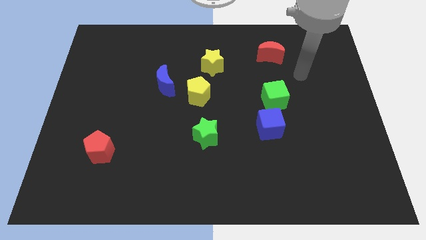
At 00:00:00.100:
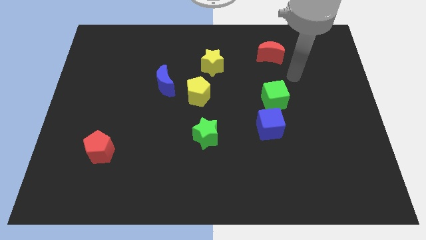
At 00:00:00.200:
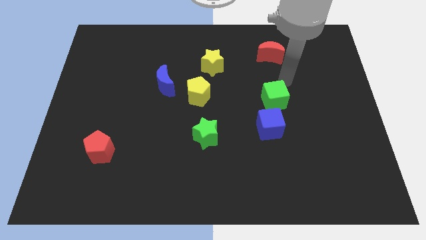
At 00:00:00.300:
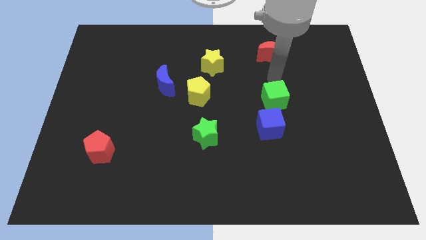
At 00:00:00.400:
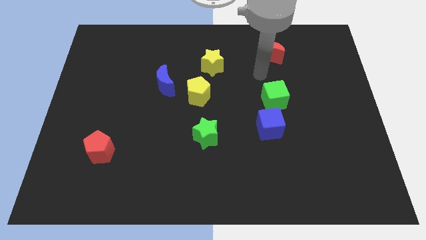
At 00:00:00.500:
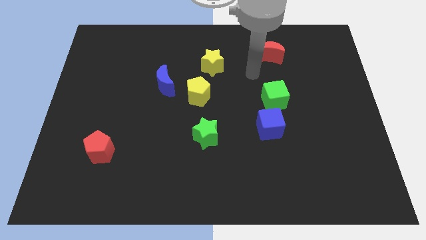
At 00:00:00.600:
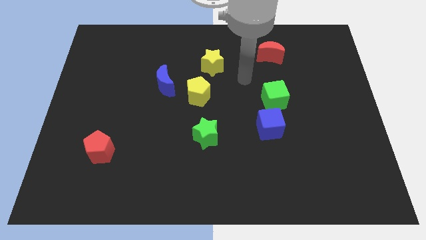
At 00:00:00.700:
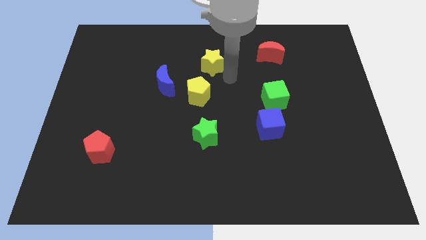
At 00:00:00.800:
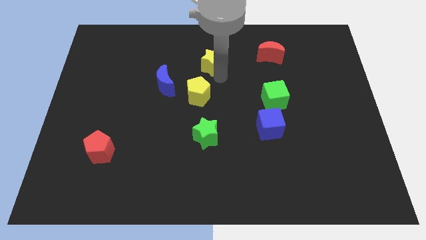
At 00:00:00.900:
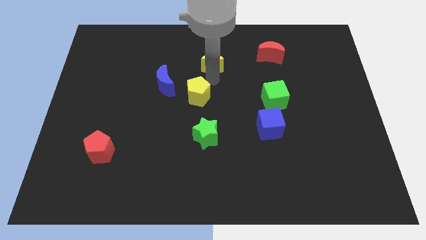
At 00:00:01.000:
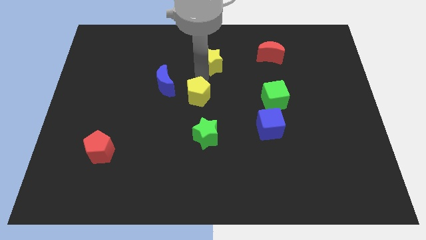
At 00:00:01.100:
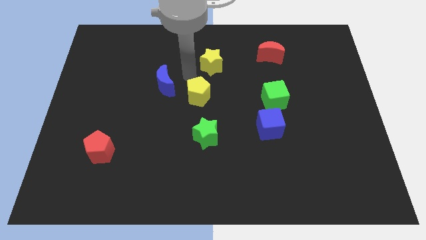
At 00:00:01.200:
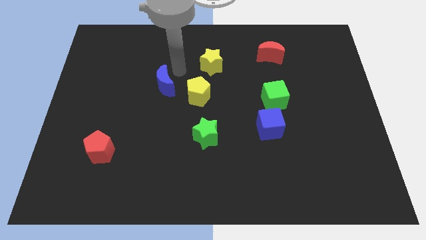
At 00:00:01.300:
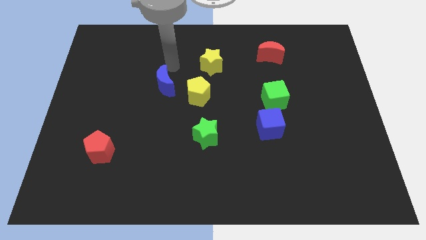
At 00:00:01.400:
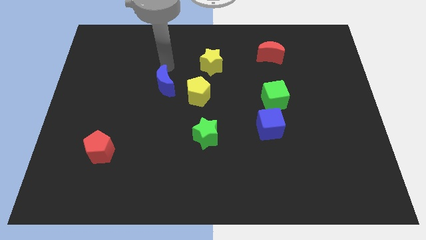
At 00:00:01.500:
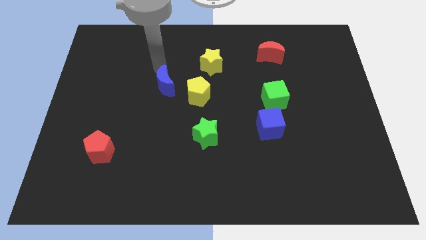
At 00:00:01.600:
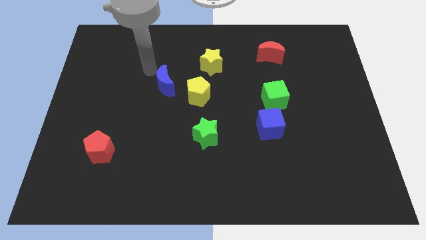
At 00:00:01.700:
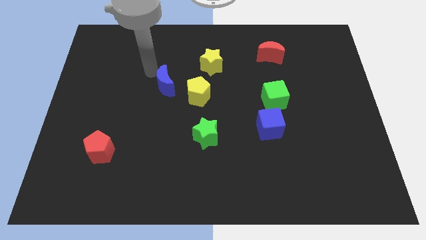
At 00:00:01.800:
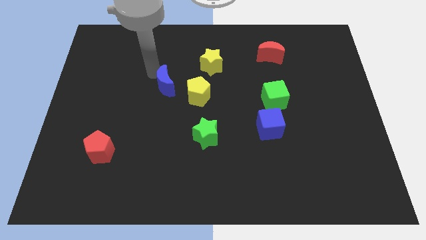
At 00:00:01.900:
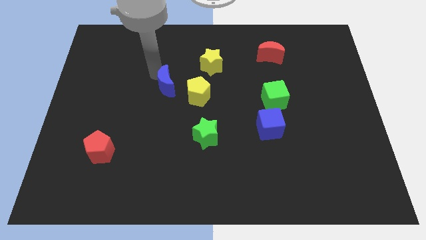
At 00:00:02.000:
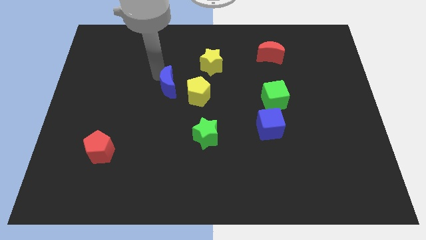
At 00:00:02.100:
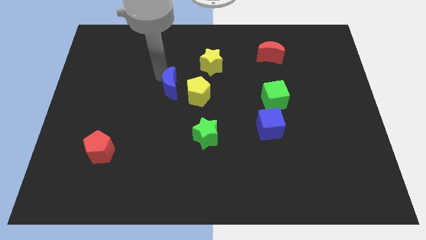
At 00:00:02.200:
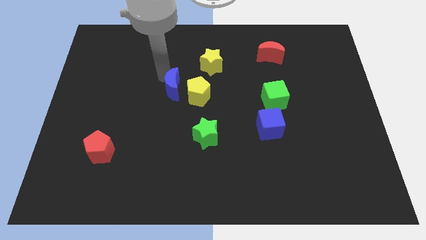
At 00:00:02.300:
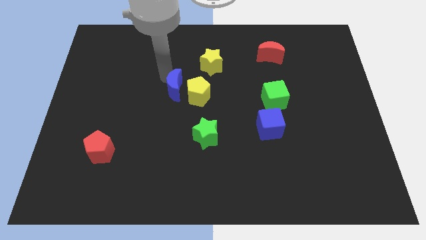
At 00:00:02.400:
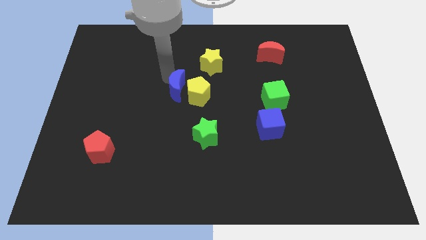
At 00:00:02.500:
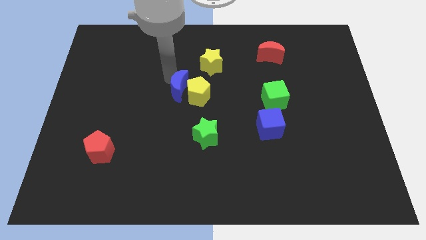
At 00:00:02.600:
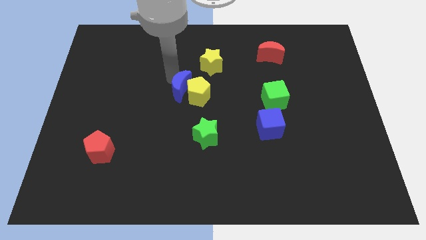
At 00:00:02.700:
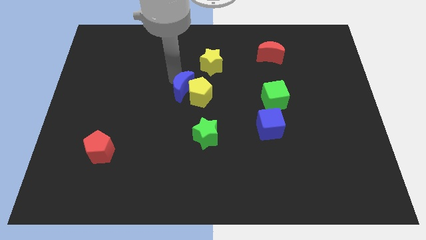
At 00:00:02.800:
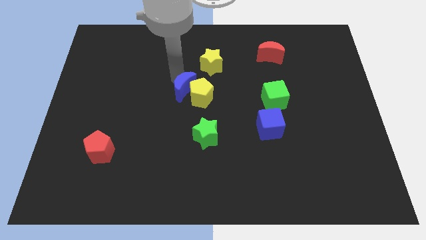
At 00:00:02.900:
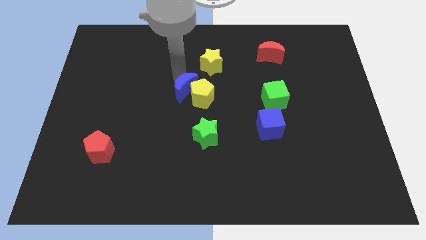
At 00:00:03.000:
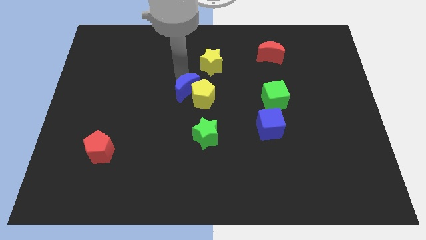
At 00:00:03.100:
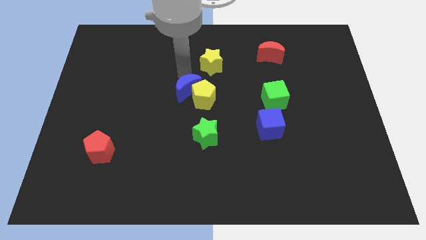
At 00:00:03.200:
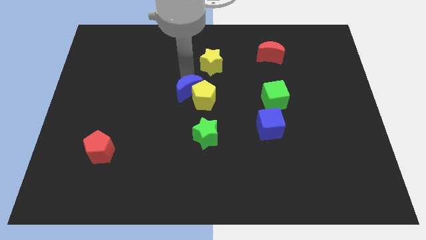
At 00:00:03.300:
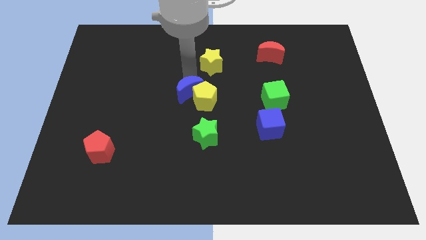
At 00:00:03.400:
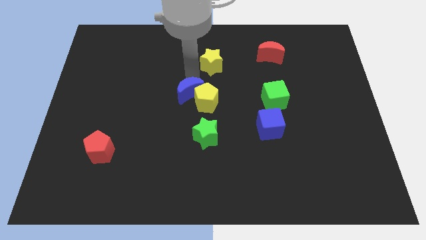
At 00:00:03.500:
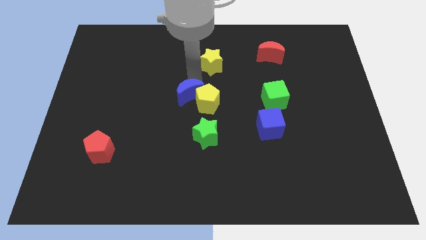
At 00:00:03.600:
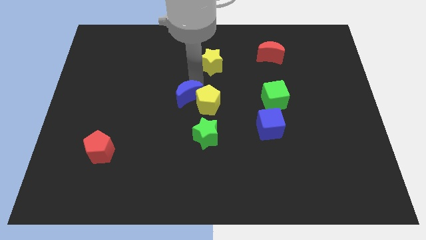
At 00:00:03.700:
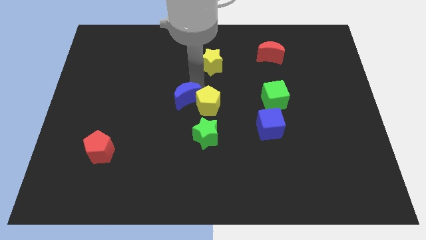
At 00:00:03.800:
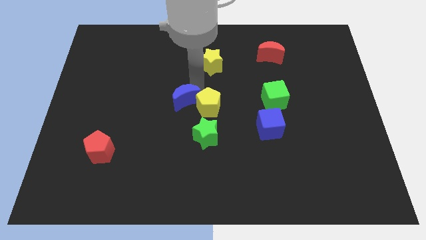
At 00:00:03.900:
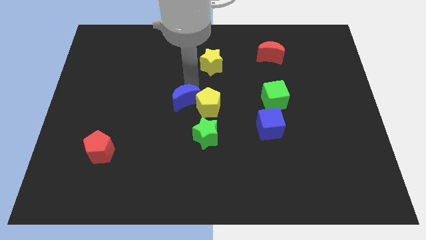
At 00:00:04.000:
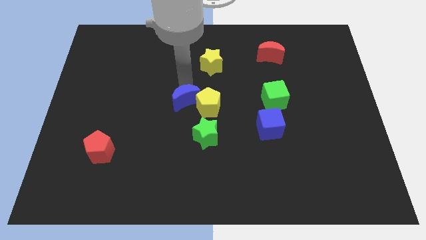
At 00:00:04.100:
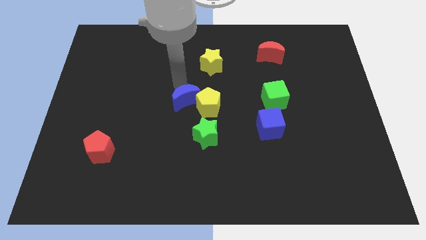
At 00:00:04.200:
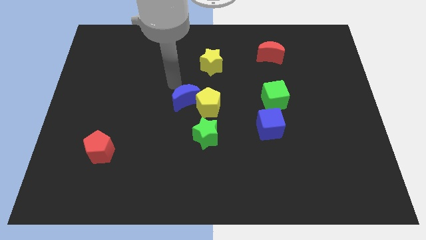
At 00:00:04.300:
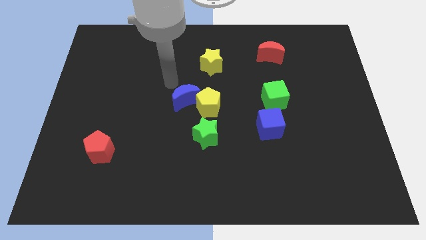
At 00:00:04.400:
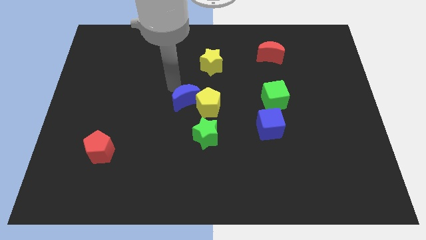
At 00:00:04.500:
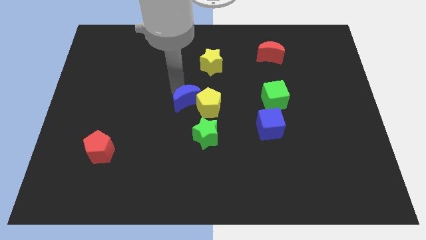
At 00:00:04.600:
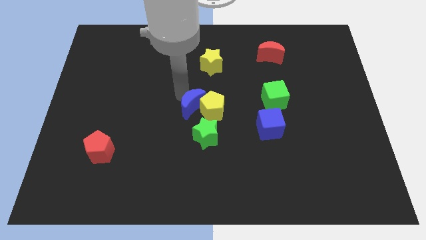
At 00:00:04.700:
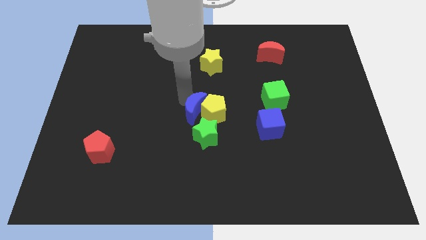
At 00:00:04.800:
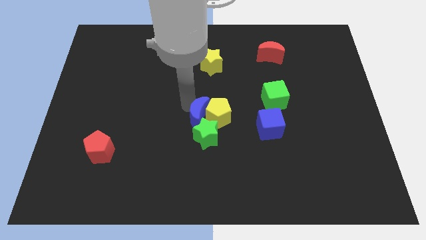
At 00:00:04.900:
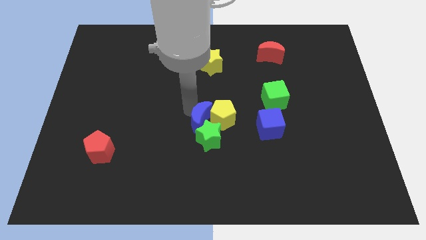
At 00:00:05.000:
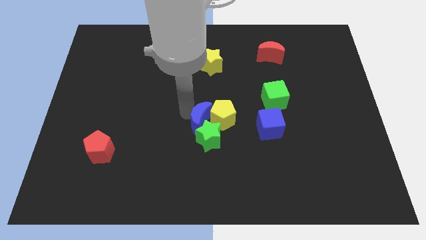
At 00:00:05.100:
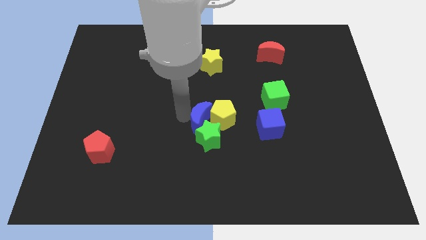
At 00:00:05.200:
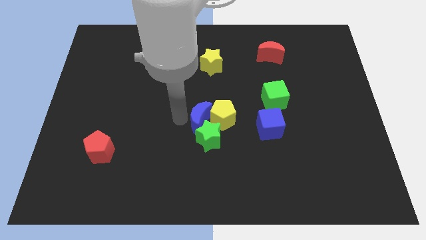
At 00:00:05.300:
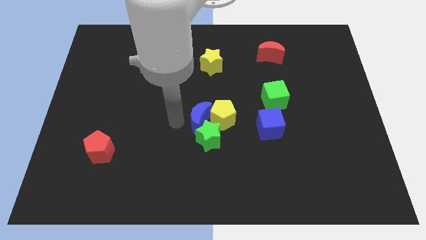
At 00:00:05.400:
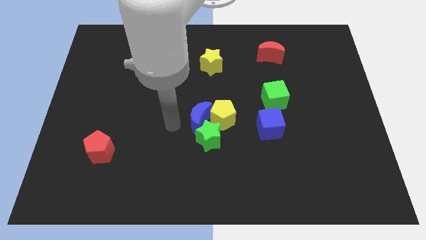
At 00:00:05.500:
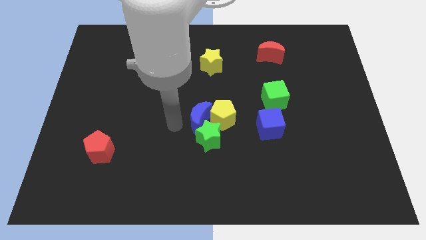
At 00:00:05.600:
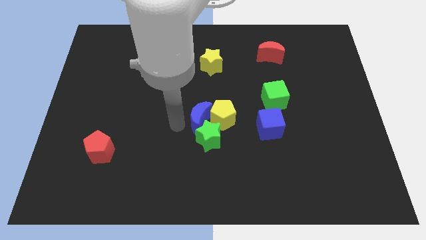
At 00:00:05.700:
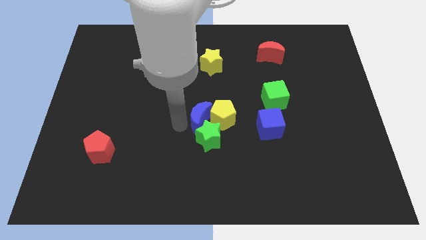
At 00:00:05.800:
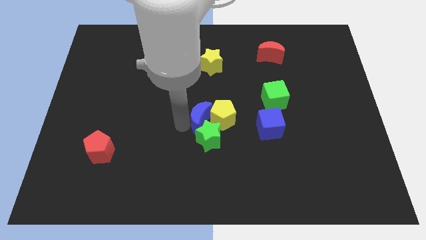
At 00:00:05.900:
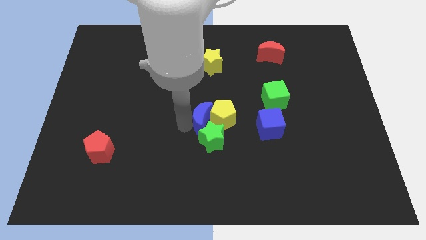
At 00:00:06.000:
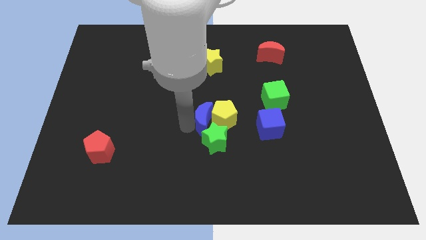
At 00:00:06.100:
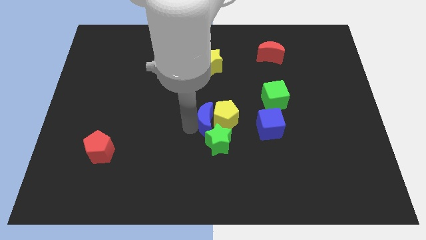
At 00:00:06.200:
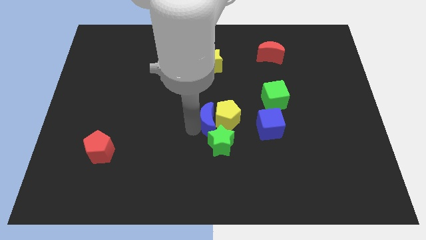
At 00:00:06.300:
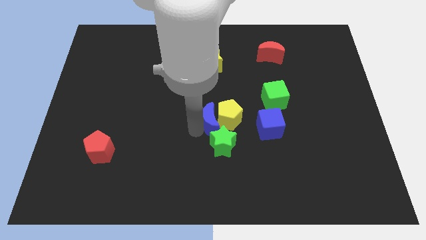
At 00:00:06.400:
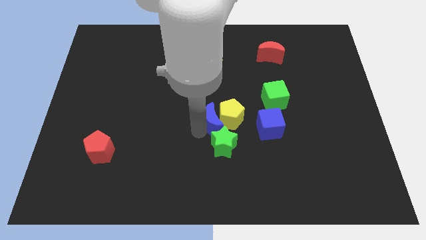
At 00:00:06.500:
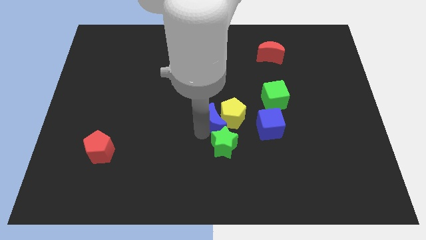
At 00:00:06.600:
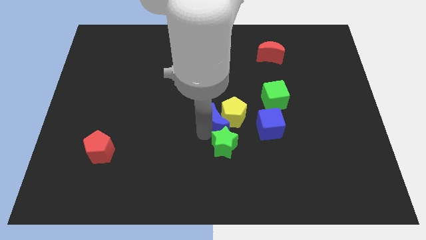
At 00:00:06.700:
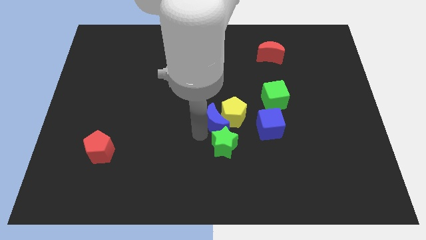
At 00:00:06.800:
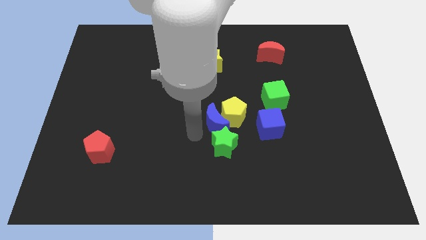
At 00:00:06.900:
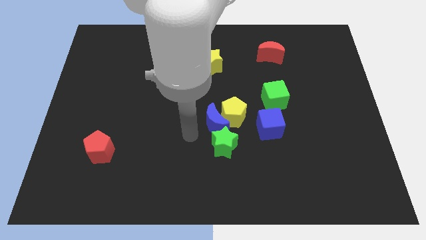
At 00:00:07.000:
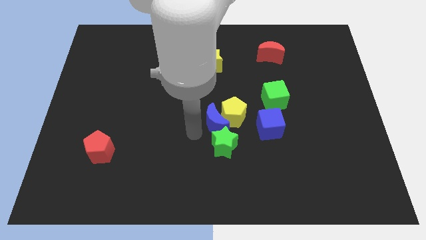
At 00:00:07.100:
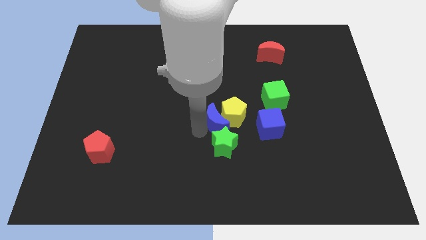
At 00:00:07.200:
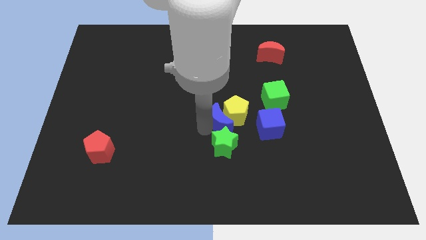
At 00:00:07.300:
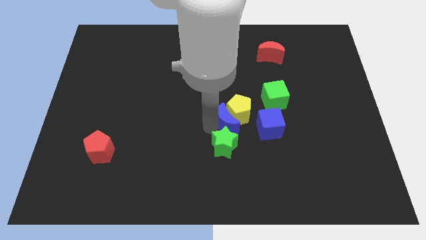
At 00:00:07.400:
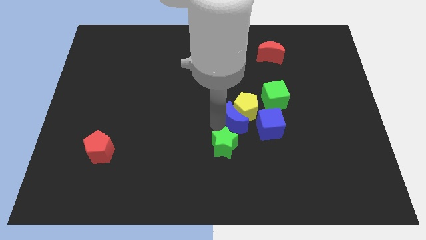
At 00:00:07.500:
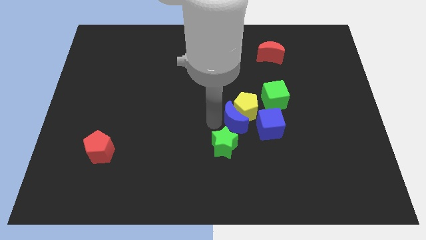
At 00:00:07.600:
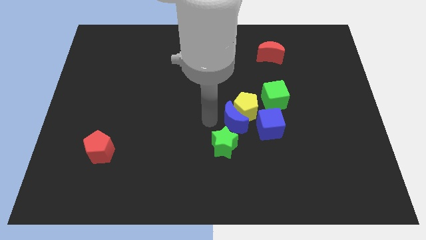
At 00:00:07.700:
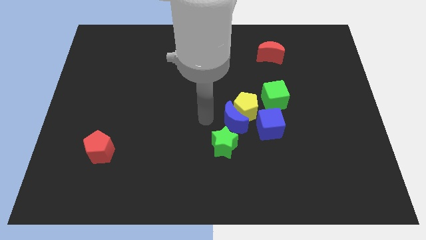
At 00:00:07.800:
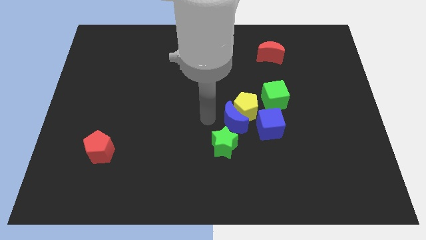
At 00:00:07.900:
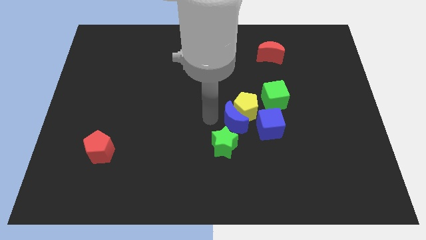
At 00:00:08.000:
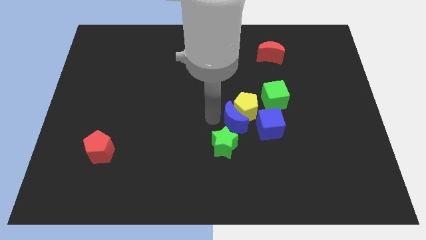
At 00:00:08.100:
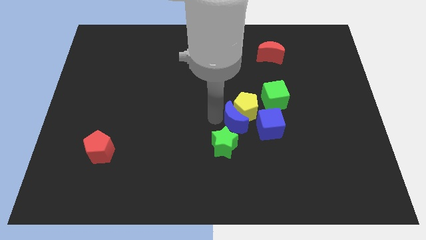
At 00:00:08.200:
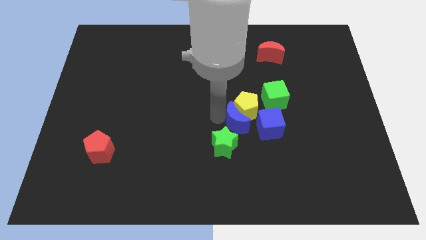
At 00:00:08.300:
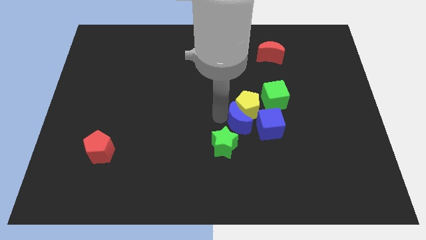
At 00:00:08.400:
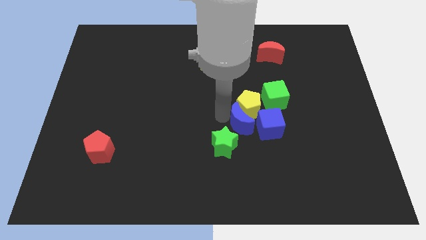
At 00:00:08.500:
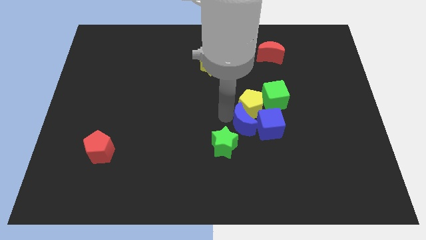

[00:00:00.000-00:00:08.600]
push the blue moon next to the blue cube
